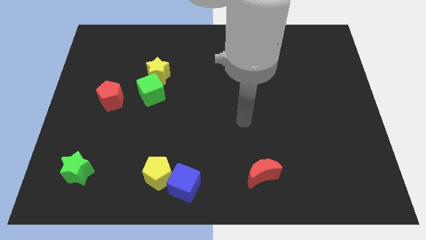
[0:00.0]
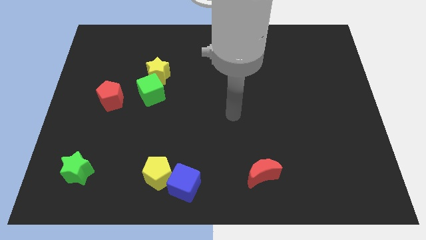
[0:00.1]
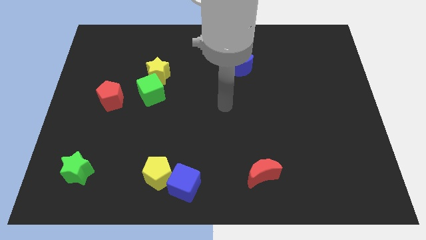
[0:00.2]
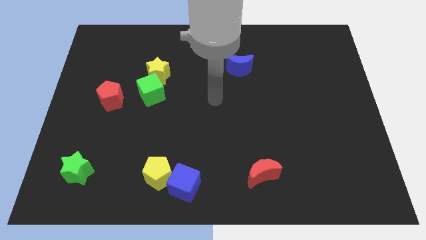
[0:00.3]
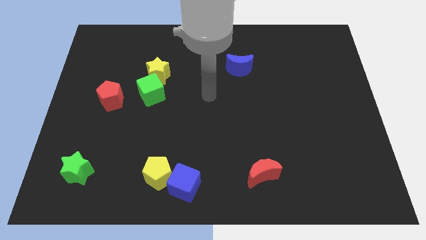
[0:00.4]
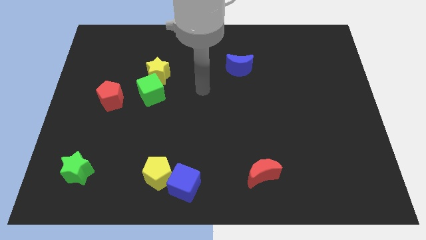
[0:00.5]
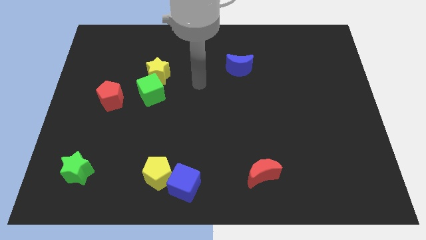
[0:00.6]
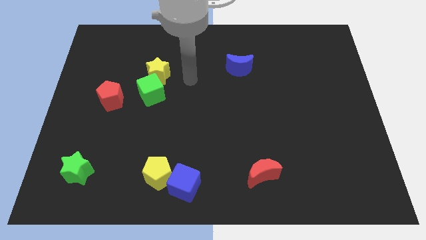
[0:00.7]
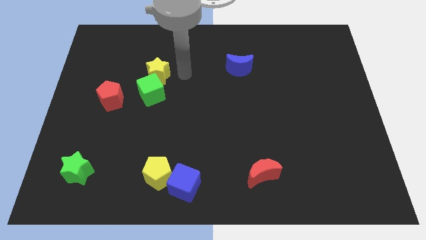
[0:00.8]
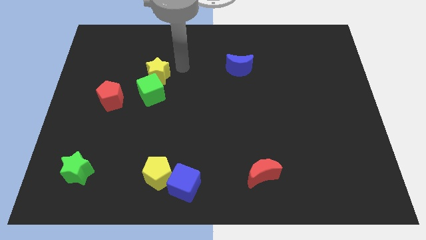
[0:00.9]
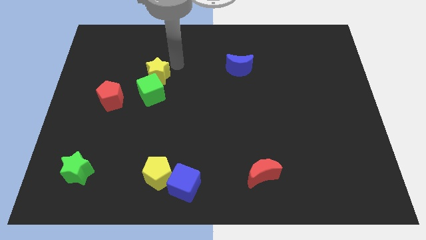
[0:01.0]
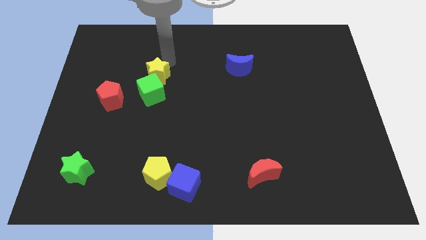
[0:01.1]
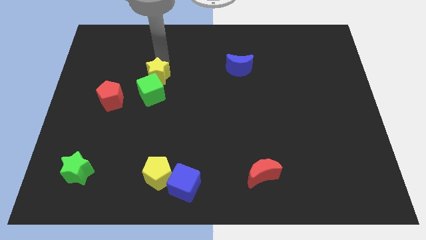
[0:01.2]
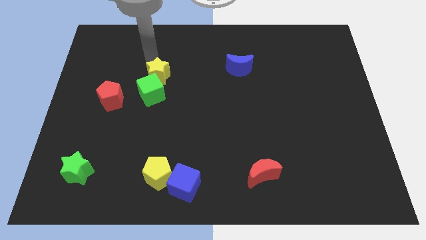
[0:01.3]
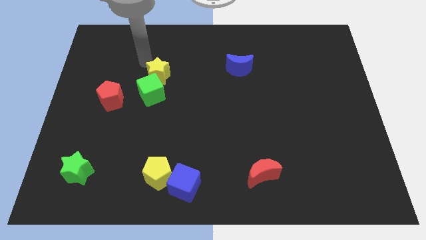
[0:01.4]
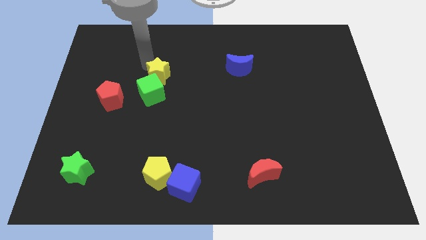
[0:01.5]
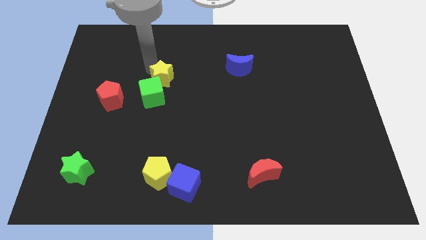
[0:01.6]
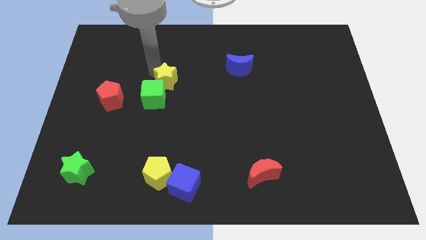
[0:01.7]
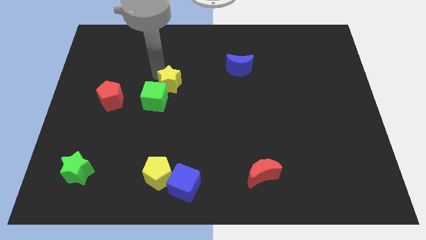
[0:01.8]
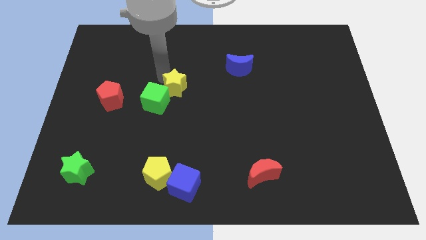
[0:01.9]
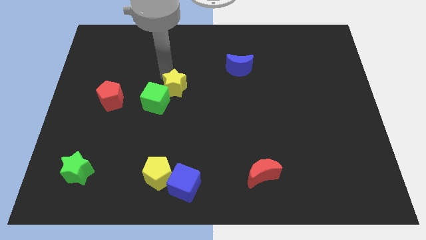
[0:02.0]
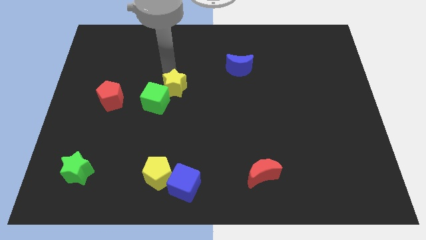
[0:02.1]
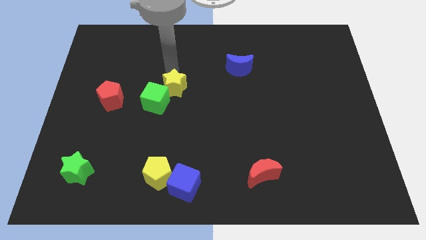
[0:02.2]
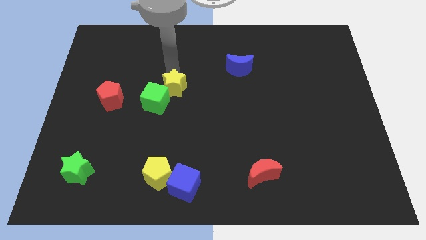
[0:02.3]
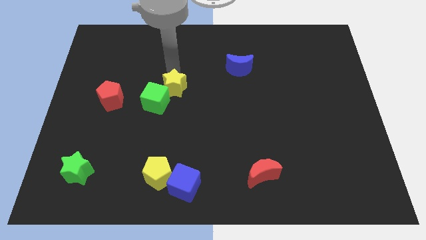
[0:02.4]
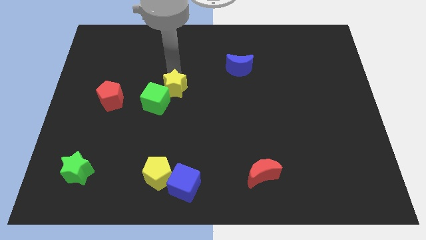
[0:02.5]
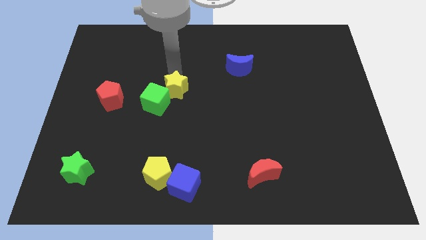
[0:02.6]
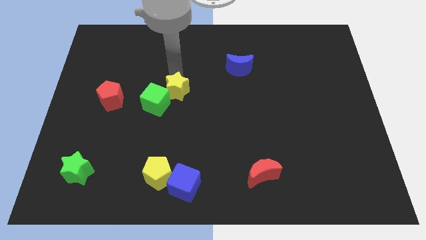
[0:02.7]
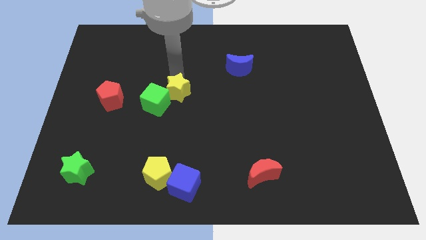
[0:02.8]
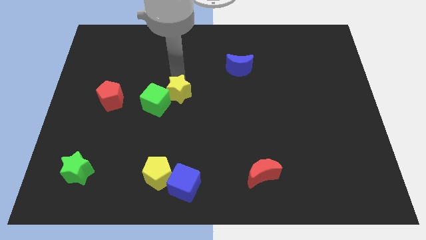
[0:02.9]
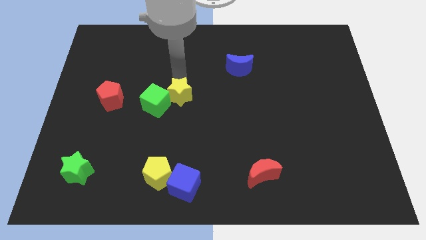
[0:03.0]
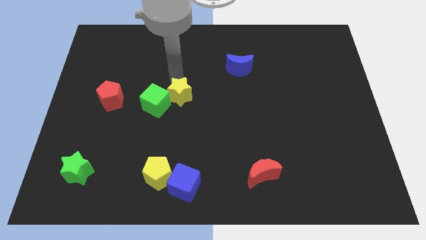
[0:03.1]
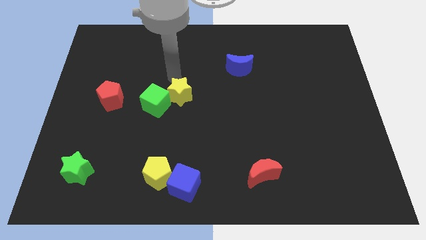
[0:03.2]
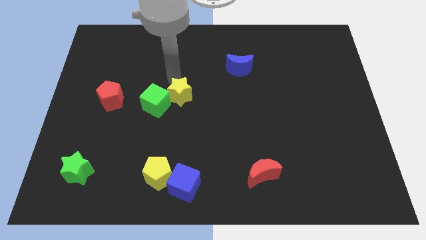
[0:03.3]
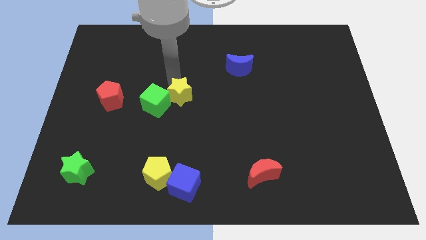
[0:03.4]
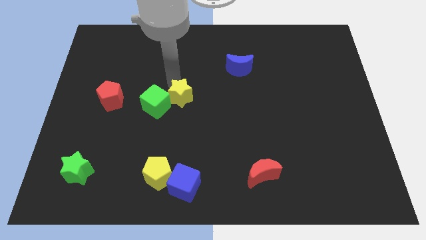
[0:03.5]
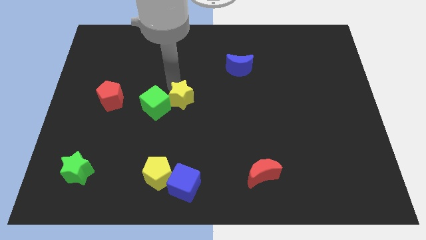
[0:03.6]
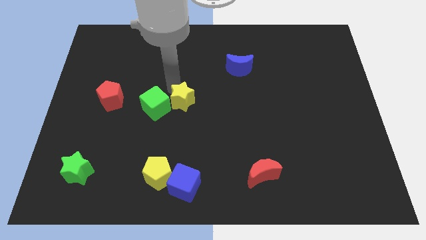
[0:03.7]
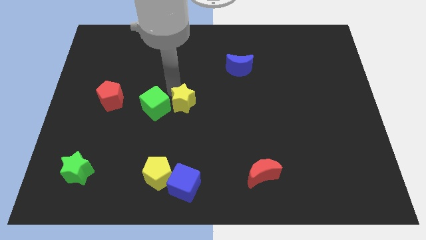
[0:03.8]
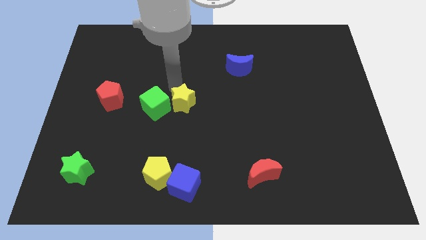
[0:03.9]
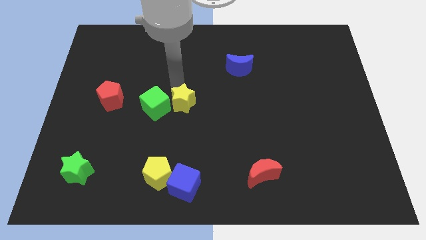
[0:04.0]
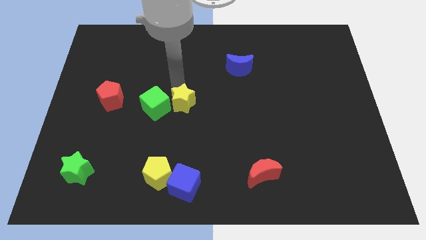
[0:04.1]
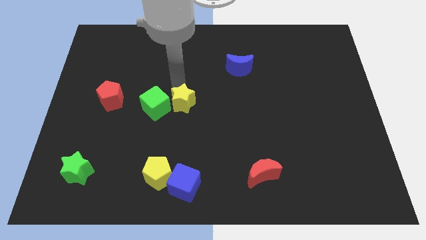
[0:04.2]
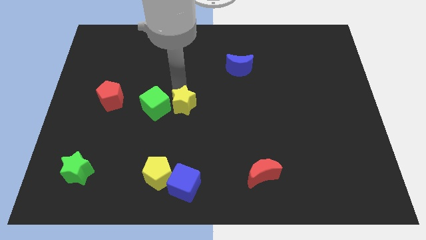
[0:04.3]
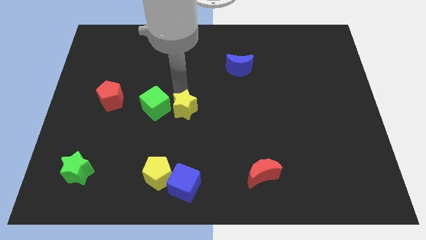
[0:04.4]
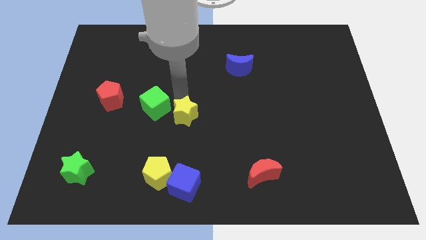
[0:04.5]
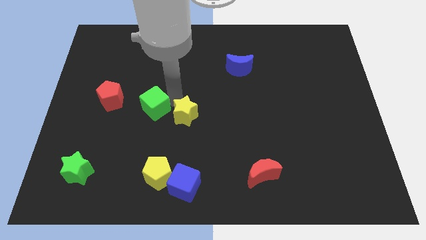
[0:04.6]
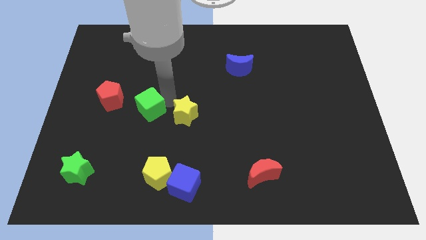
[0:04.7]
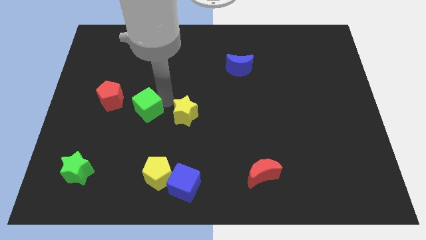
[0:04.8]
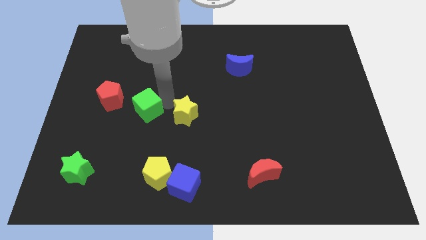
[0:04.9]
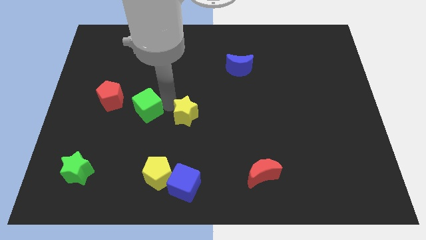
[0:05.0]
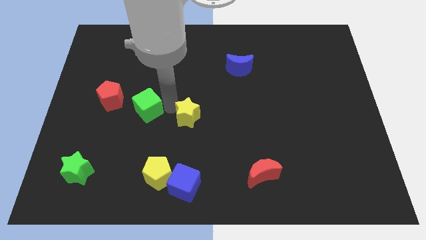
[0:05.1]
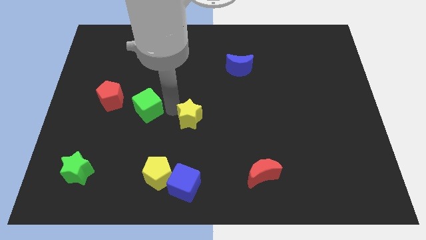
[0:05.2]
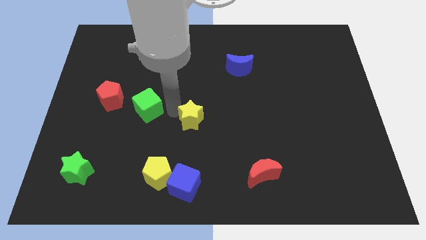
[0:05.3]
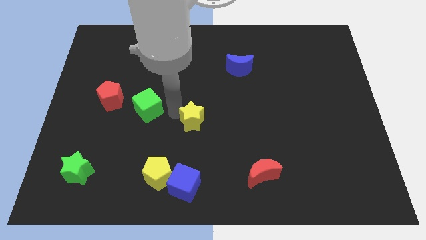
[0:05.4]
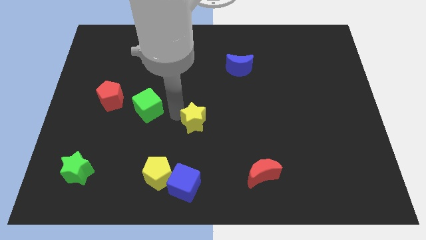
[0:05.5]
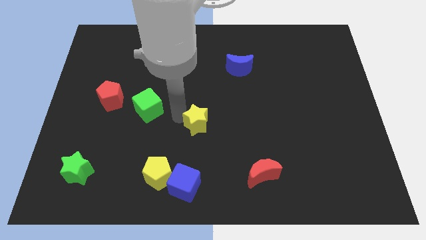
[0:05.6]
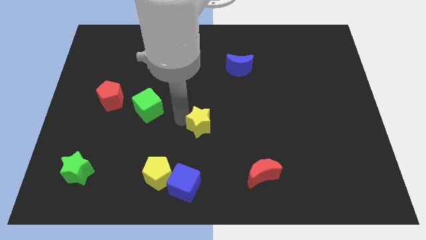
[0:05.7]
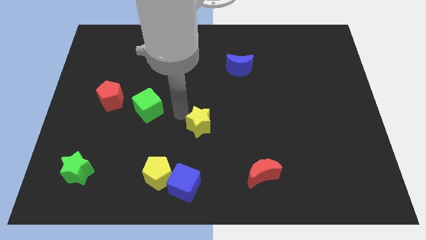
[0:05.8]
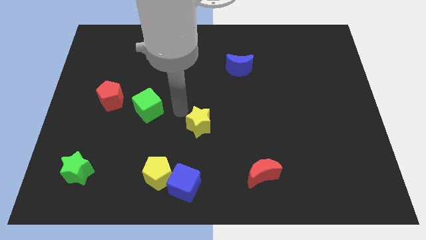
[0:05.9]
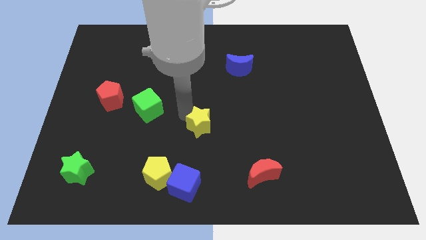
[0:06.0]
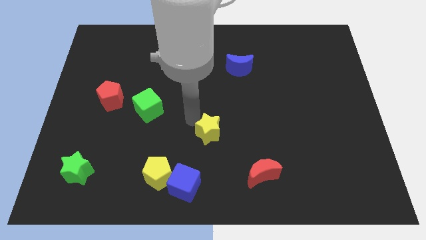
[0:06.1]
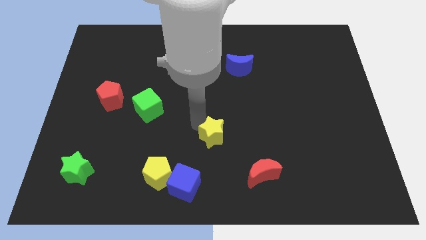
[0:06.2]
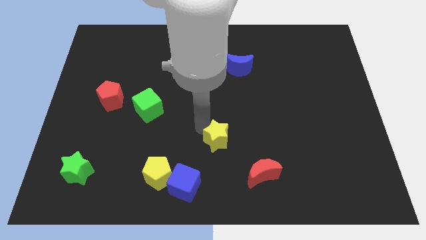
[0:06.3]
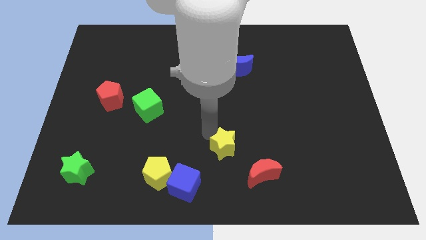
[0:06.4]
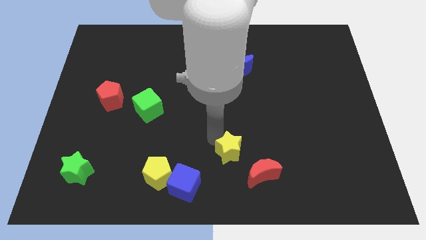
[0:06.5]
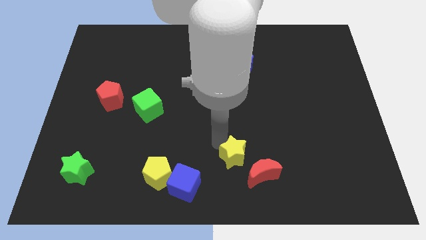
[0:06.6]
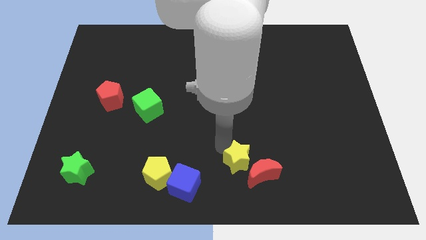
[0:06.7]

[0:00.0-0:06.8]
put the yellow star to the red moon

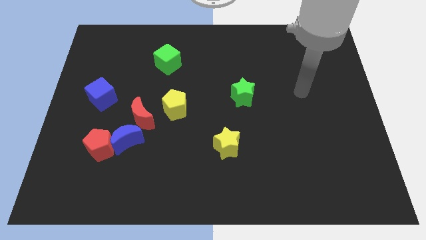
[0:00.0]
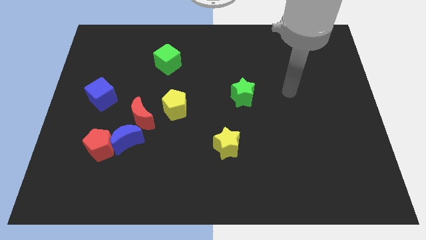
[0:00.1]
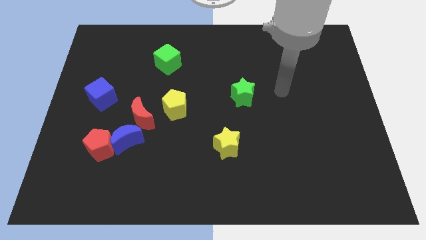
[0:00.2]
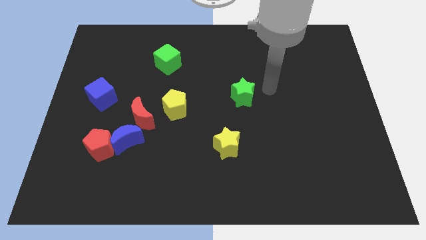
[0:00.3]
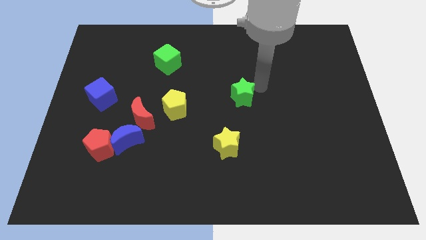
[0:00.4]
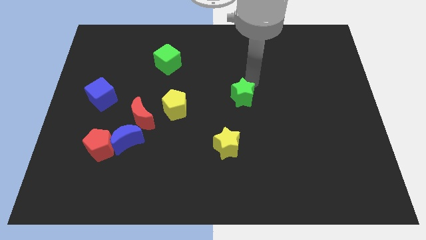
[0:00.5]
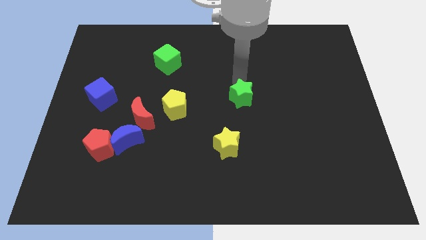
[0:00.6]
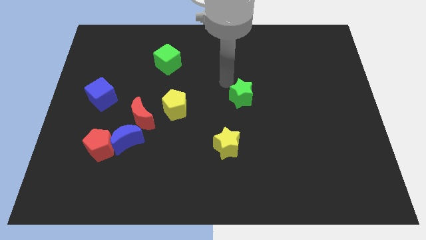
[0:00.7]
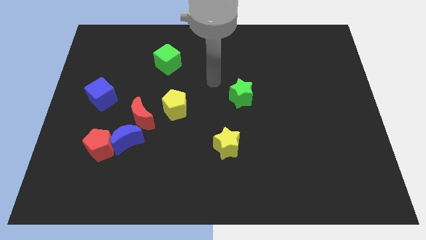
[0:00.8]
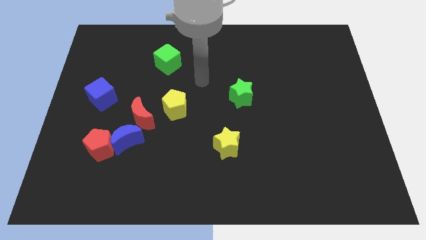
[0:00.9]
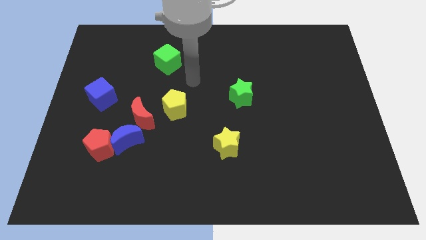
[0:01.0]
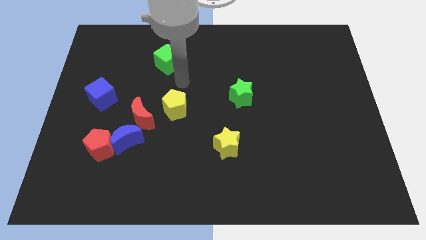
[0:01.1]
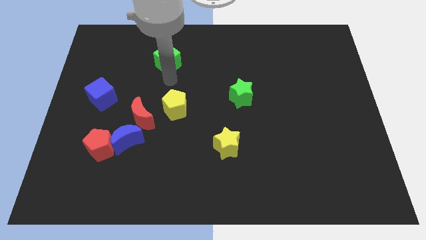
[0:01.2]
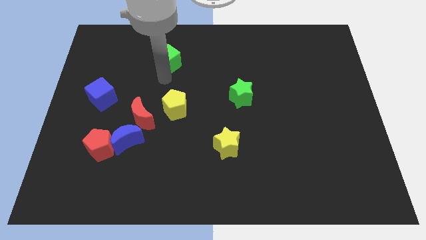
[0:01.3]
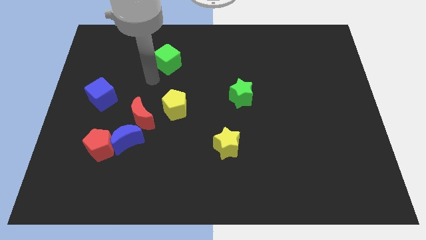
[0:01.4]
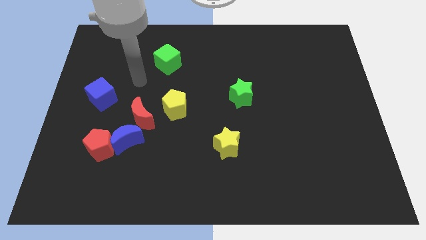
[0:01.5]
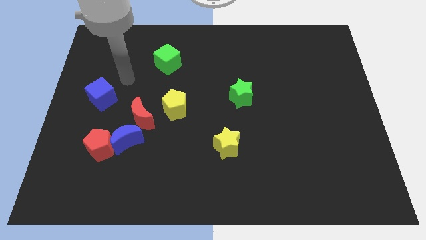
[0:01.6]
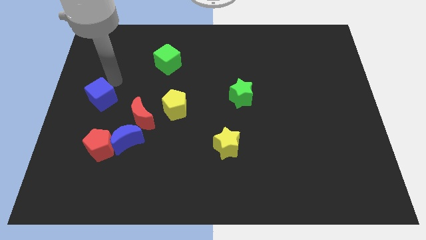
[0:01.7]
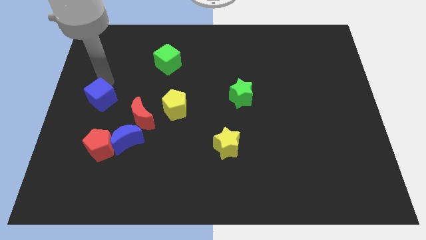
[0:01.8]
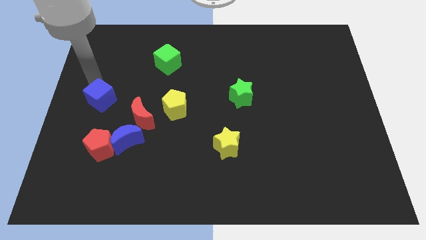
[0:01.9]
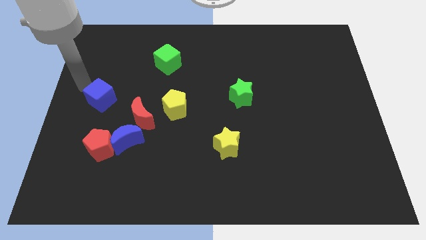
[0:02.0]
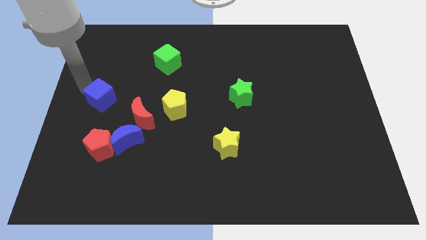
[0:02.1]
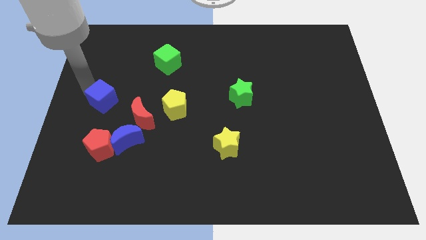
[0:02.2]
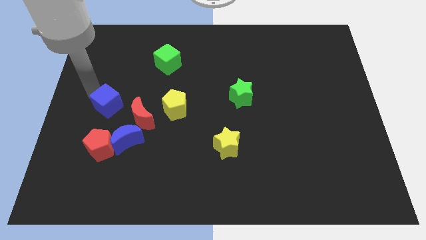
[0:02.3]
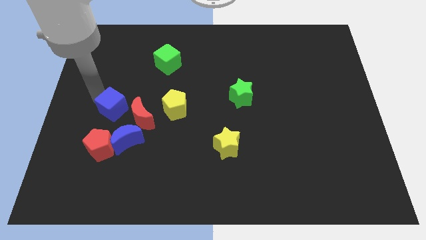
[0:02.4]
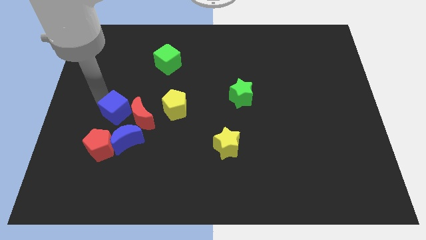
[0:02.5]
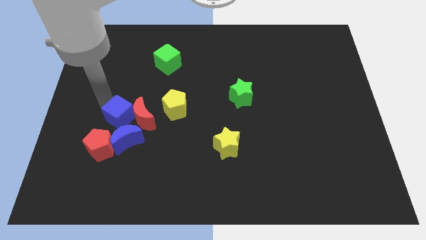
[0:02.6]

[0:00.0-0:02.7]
push the blue cube towards the red moon
